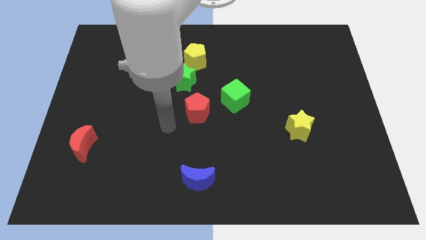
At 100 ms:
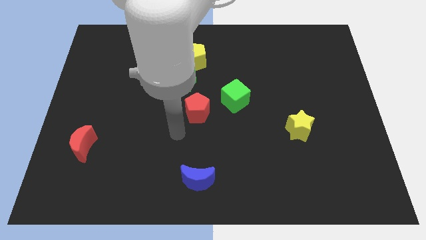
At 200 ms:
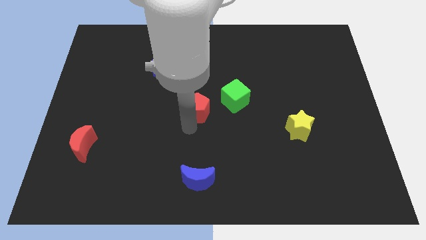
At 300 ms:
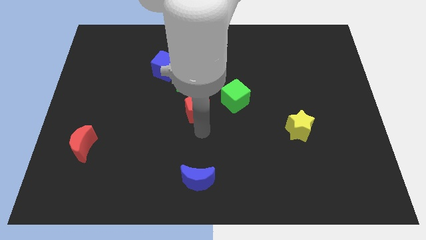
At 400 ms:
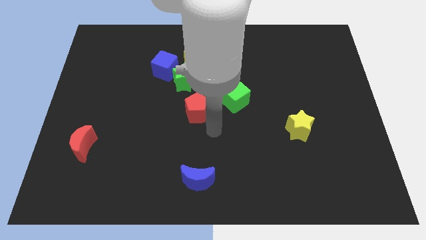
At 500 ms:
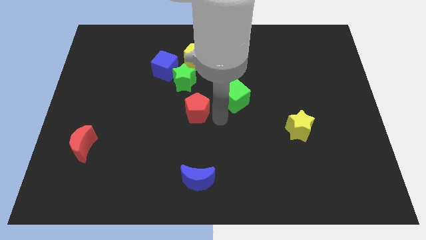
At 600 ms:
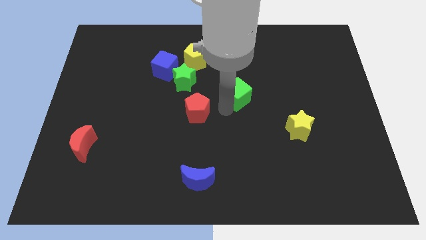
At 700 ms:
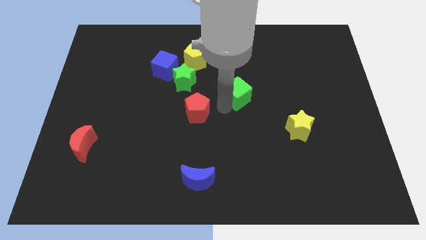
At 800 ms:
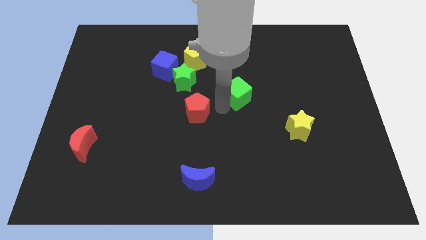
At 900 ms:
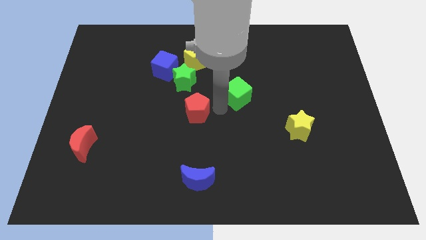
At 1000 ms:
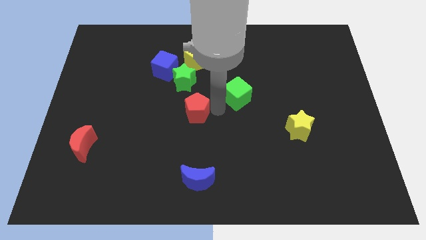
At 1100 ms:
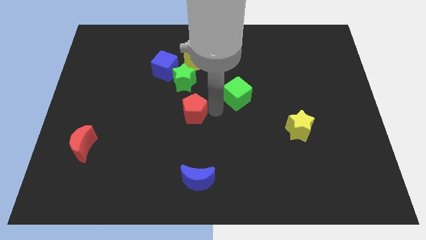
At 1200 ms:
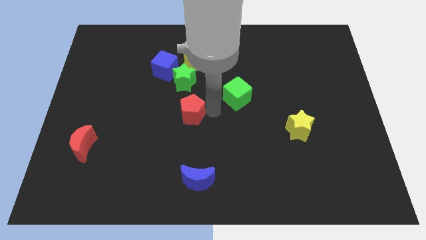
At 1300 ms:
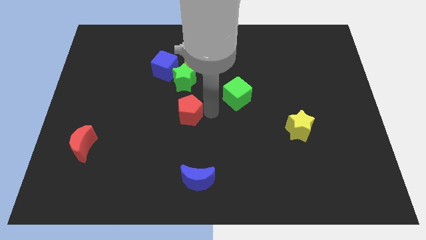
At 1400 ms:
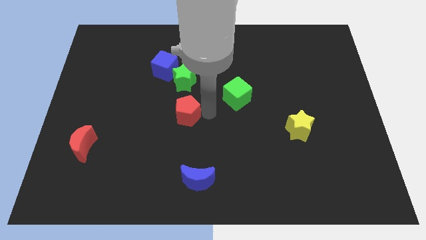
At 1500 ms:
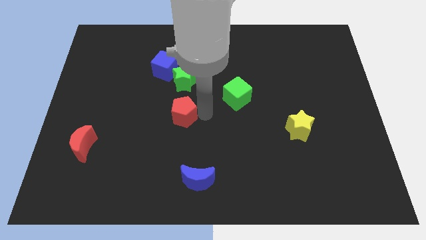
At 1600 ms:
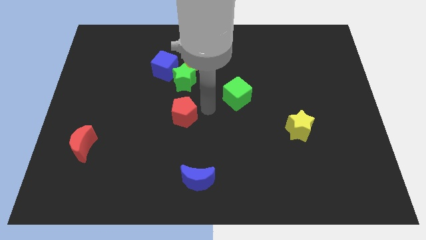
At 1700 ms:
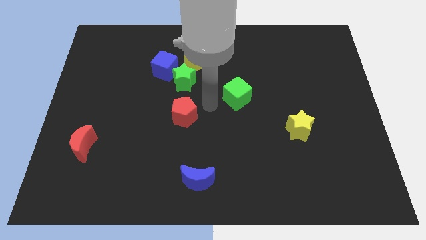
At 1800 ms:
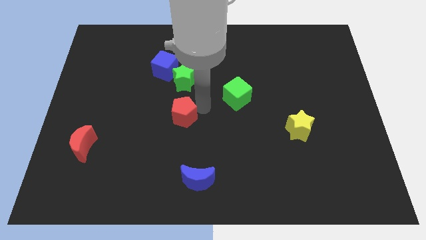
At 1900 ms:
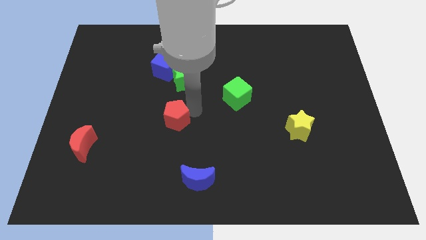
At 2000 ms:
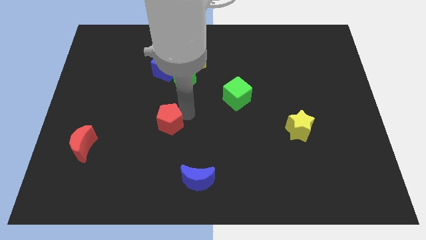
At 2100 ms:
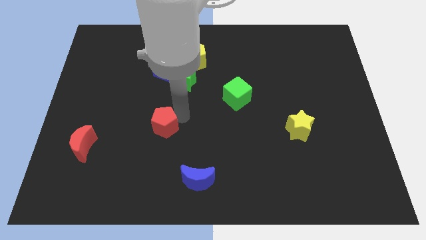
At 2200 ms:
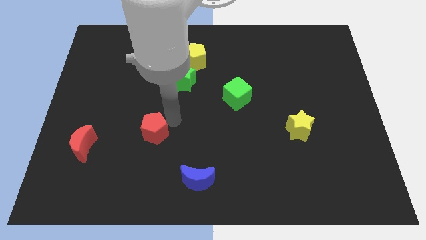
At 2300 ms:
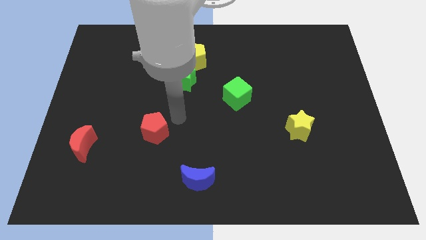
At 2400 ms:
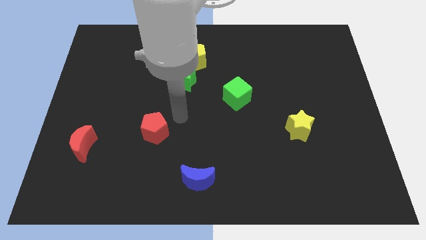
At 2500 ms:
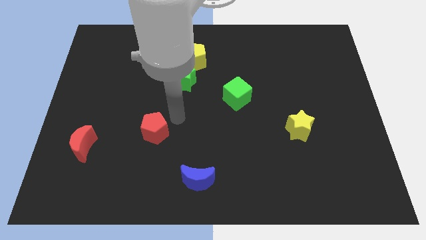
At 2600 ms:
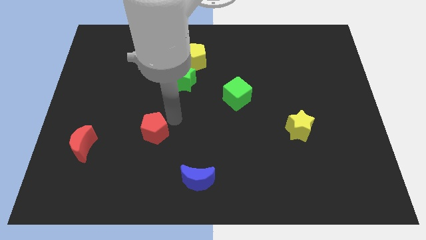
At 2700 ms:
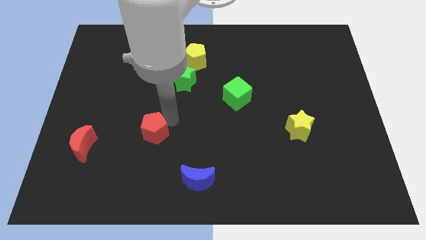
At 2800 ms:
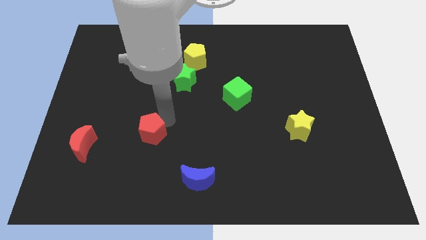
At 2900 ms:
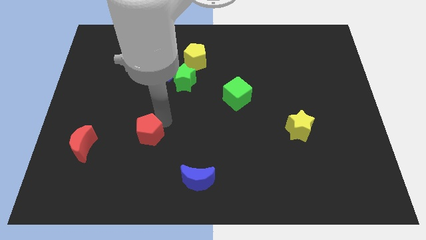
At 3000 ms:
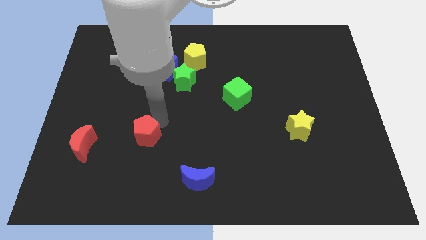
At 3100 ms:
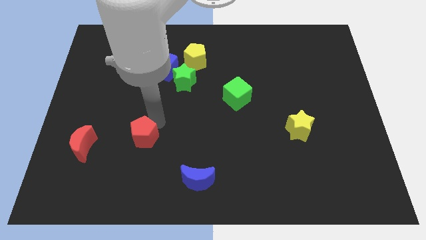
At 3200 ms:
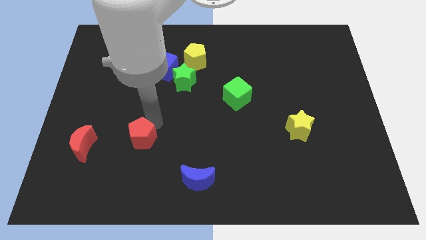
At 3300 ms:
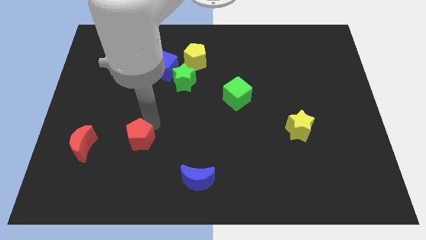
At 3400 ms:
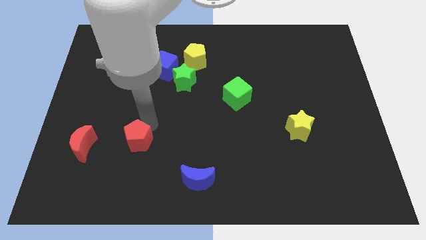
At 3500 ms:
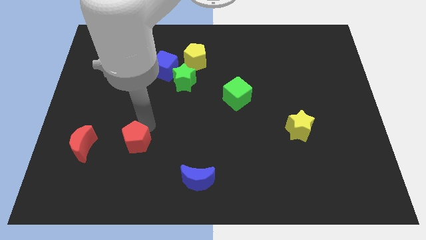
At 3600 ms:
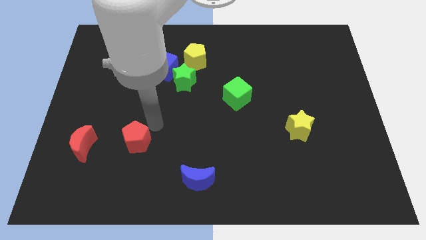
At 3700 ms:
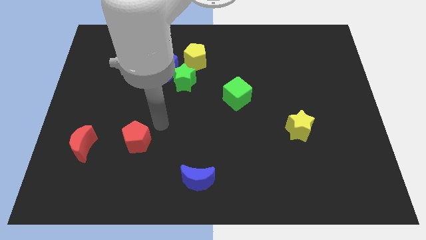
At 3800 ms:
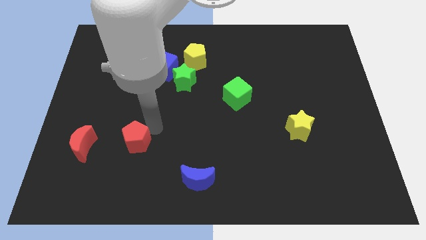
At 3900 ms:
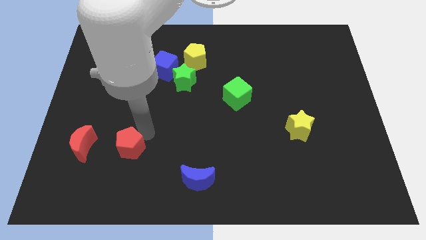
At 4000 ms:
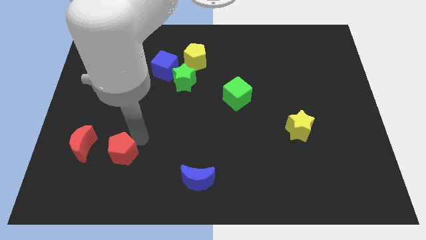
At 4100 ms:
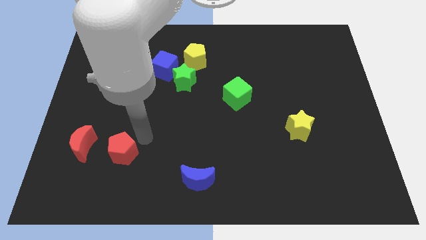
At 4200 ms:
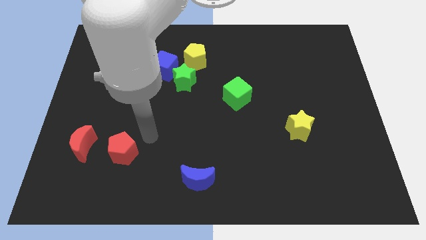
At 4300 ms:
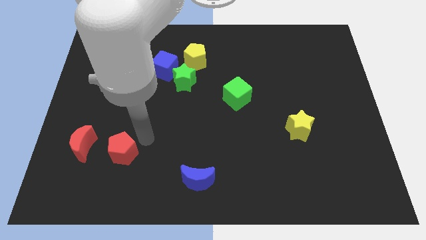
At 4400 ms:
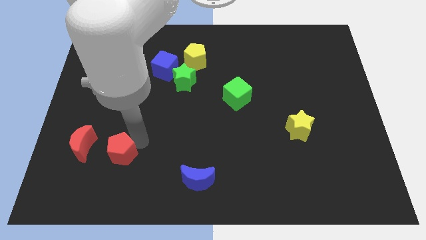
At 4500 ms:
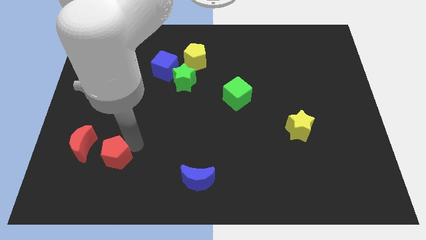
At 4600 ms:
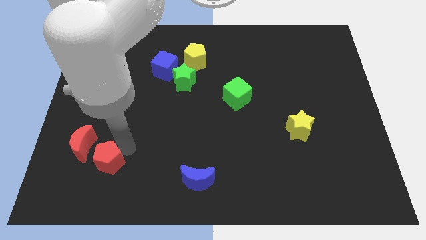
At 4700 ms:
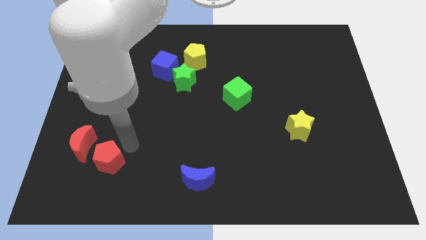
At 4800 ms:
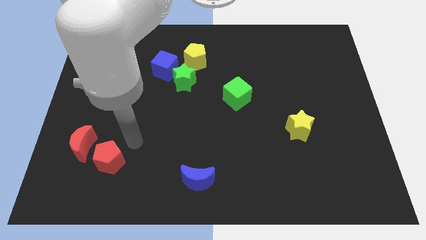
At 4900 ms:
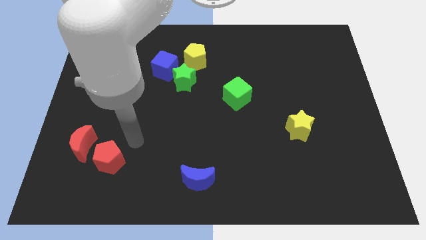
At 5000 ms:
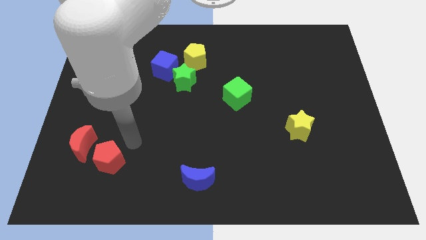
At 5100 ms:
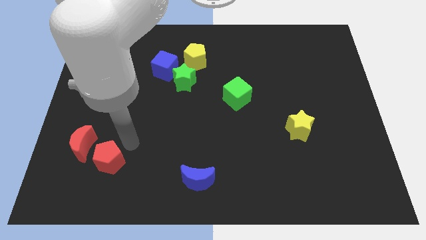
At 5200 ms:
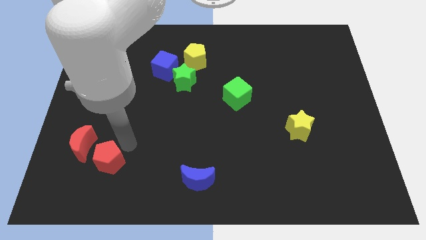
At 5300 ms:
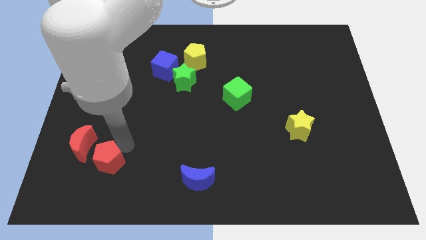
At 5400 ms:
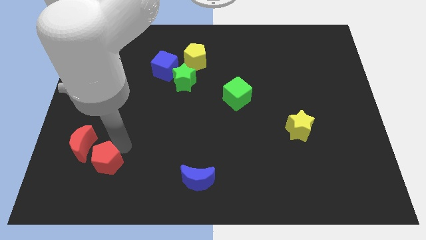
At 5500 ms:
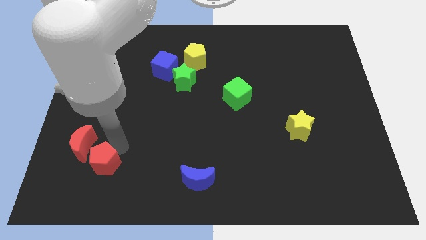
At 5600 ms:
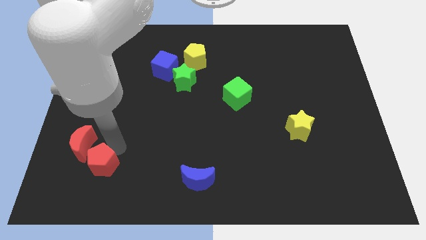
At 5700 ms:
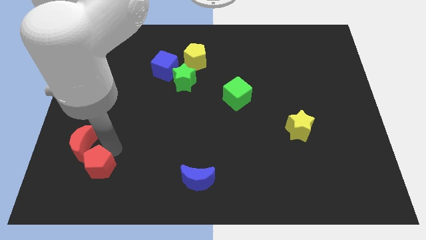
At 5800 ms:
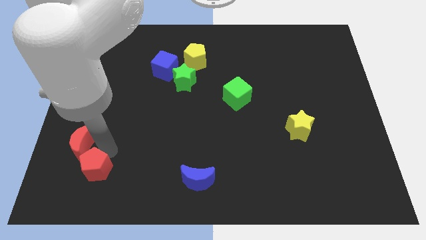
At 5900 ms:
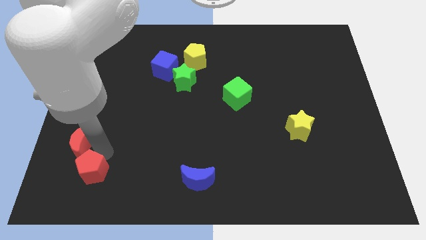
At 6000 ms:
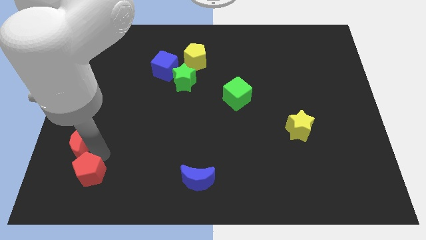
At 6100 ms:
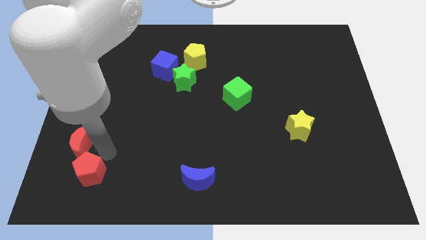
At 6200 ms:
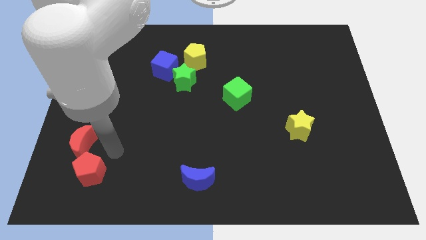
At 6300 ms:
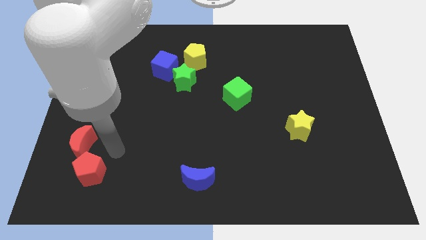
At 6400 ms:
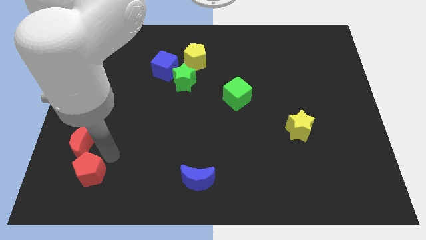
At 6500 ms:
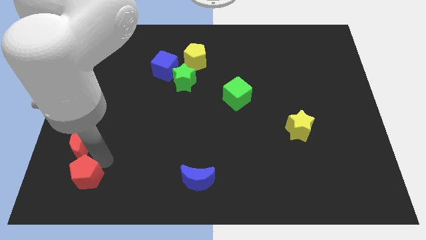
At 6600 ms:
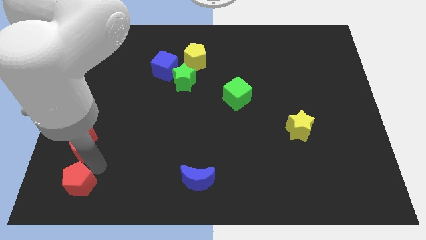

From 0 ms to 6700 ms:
push the red pentagon to the bottom left corner
